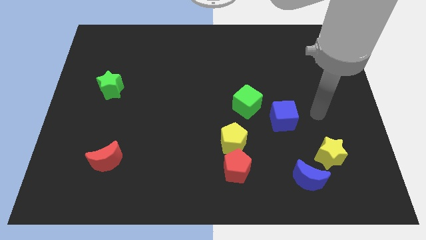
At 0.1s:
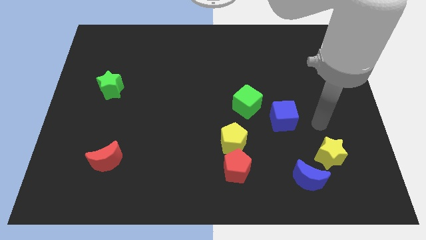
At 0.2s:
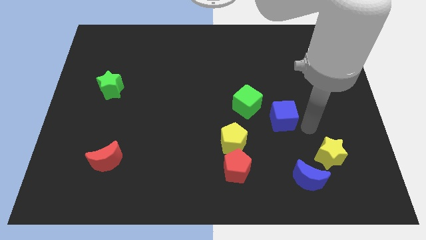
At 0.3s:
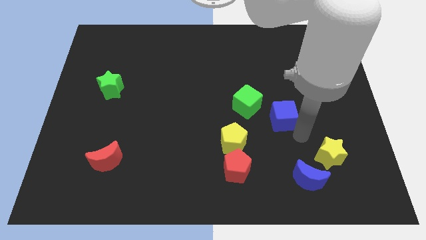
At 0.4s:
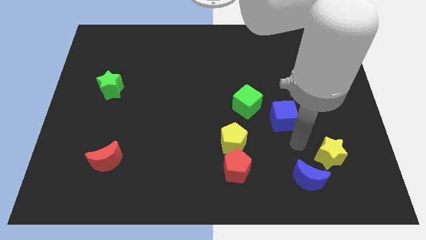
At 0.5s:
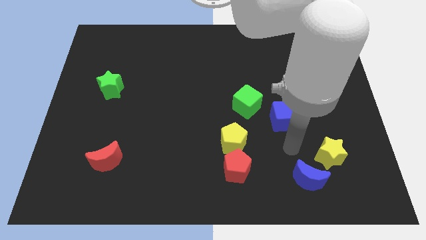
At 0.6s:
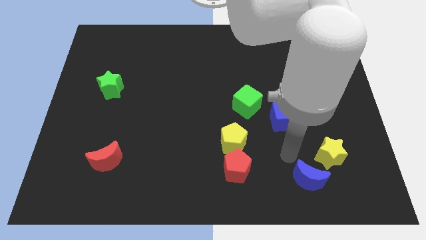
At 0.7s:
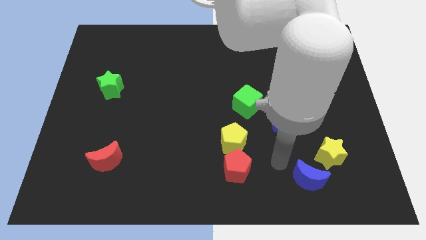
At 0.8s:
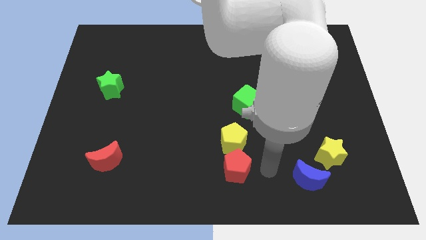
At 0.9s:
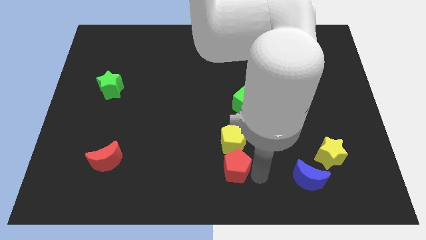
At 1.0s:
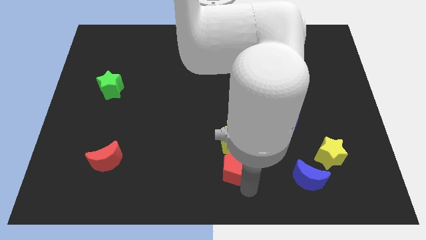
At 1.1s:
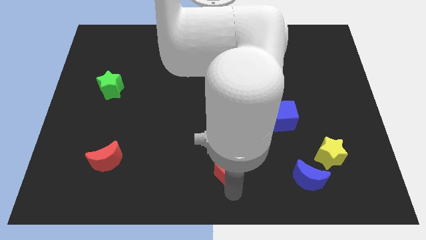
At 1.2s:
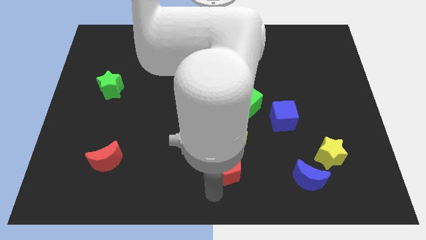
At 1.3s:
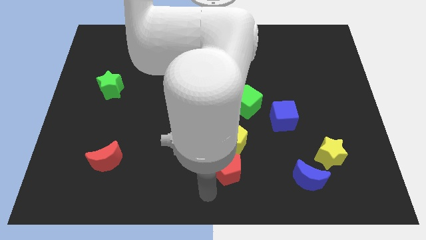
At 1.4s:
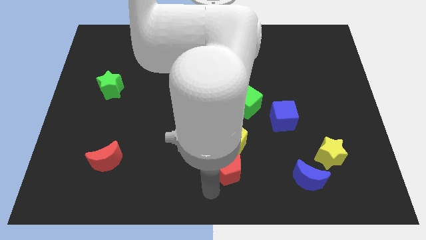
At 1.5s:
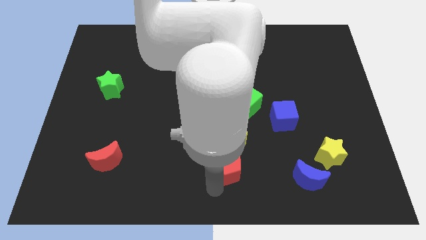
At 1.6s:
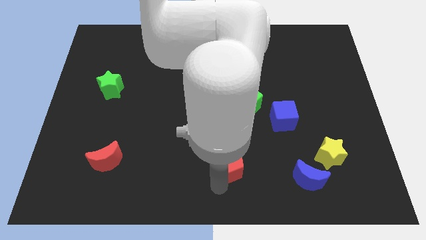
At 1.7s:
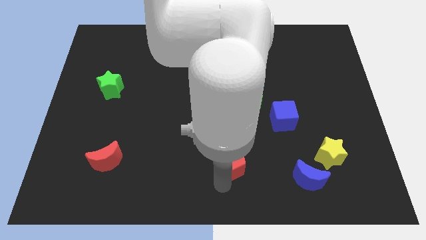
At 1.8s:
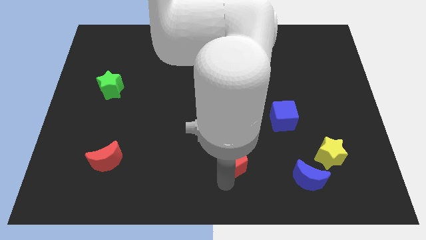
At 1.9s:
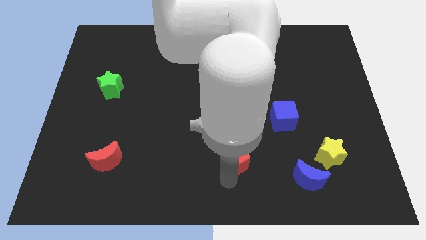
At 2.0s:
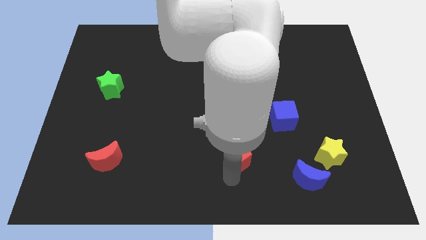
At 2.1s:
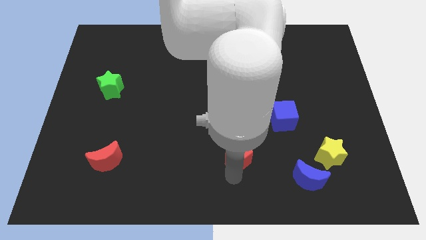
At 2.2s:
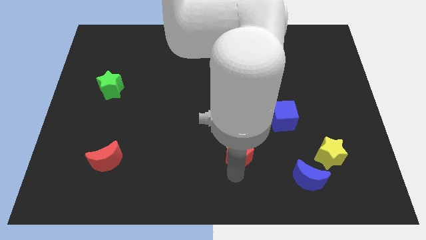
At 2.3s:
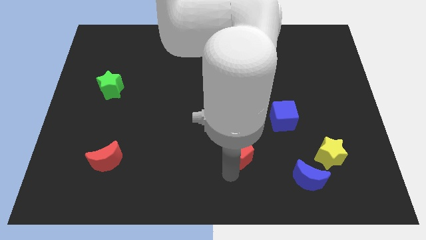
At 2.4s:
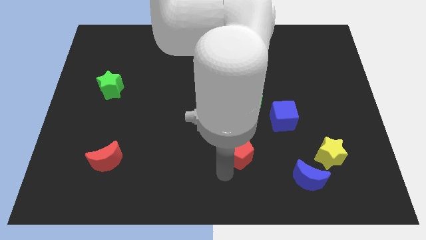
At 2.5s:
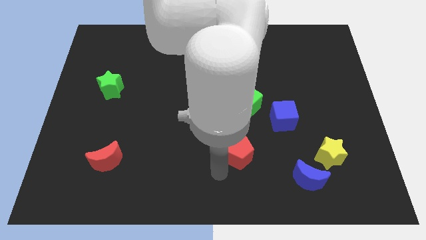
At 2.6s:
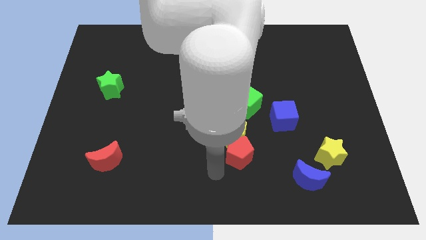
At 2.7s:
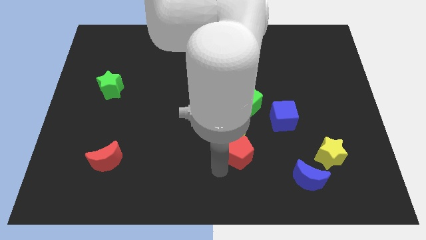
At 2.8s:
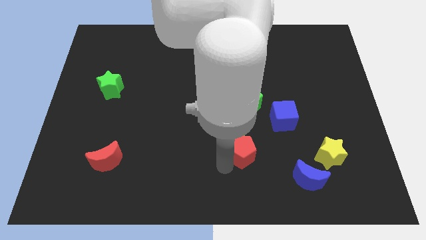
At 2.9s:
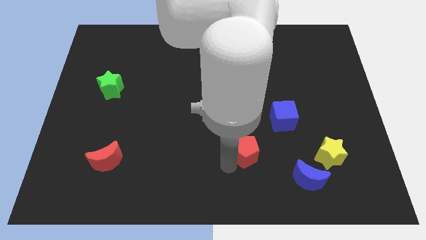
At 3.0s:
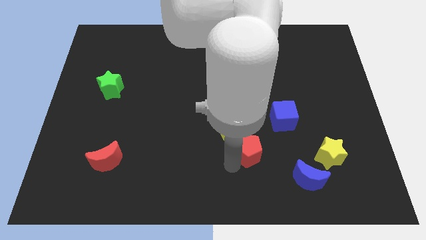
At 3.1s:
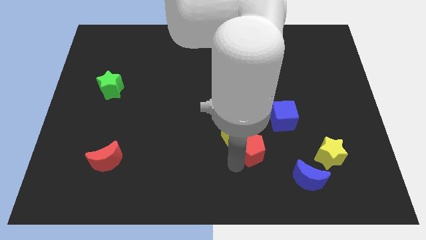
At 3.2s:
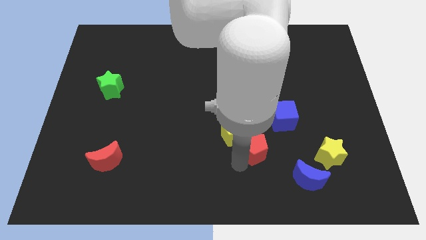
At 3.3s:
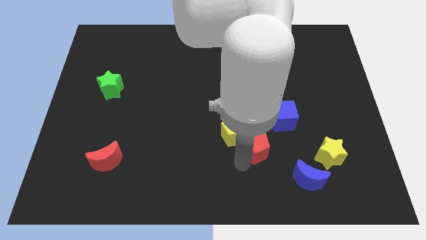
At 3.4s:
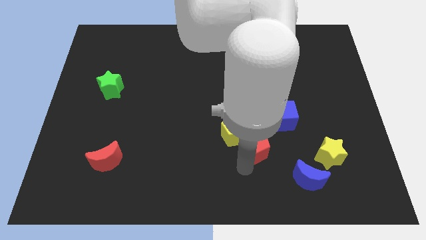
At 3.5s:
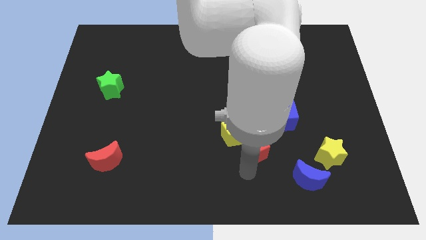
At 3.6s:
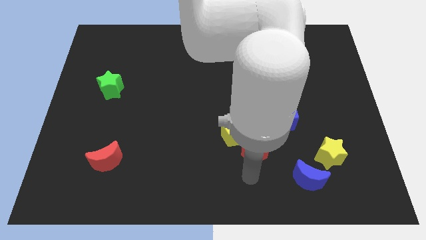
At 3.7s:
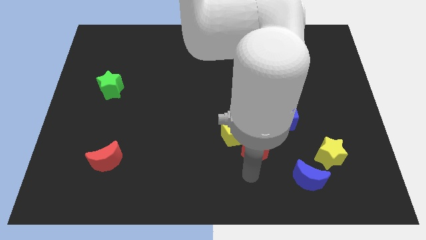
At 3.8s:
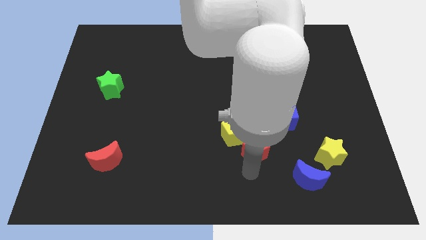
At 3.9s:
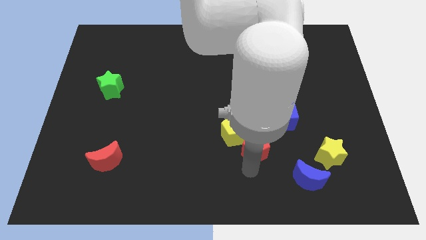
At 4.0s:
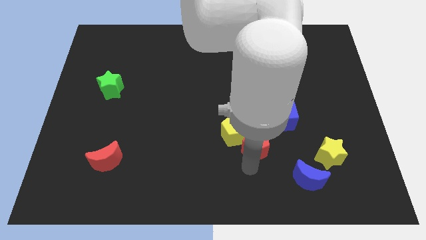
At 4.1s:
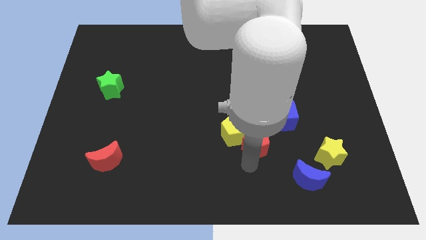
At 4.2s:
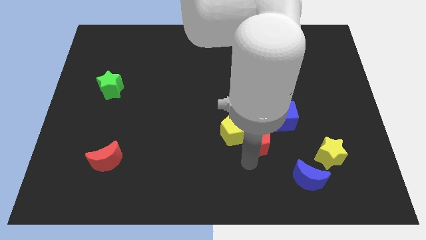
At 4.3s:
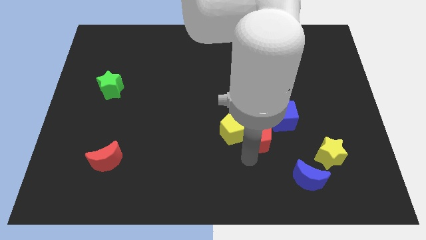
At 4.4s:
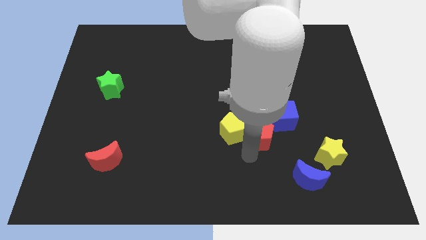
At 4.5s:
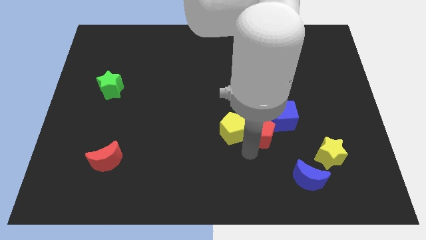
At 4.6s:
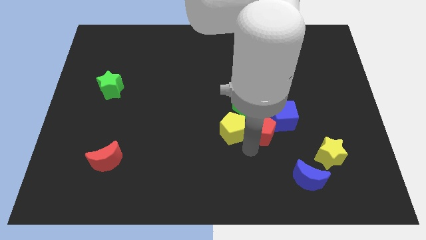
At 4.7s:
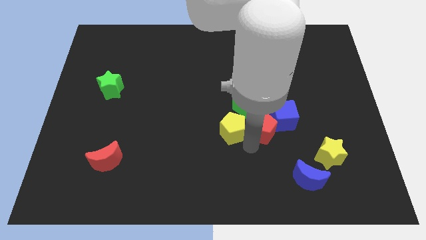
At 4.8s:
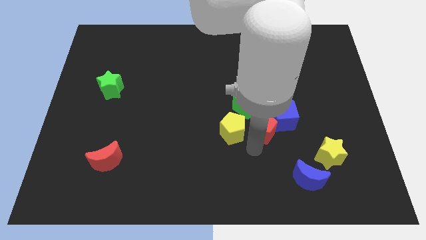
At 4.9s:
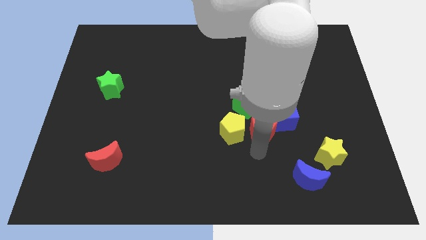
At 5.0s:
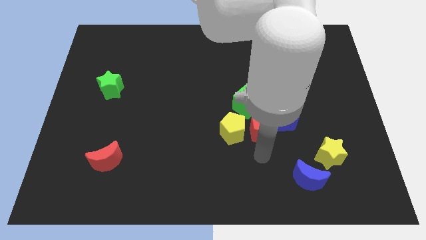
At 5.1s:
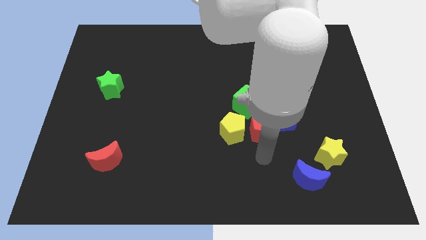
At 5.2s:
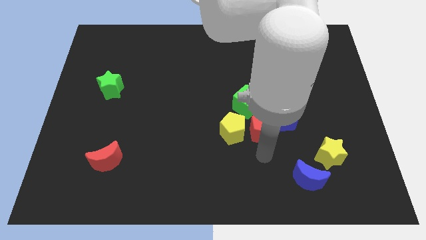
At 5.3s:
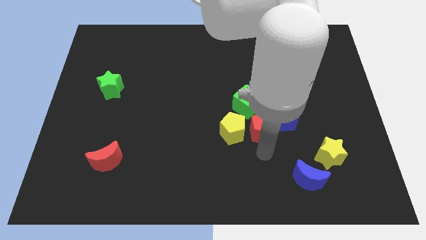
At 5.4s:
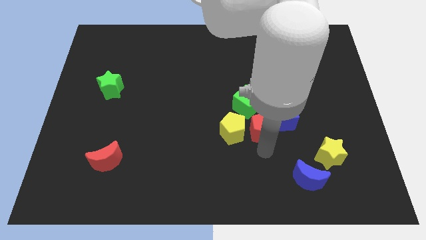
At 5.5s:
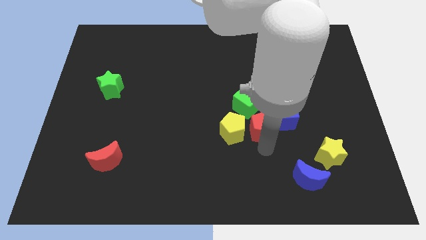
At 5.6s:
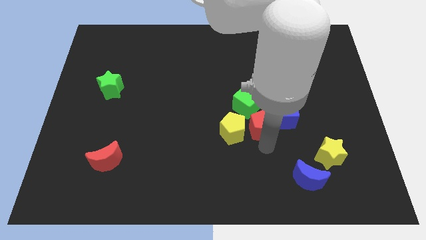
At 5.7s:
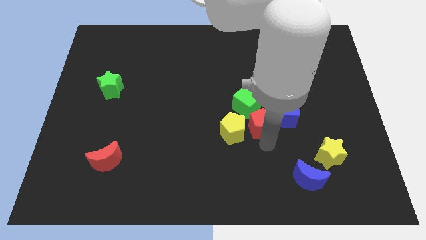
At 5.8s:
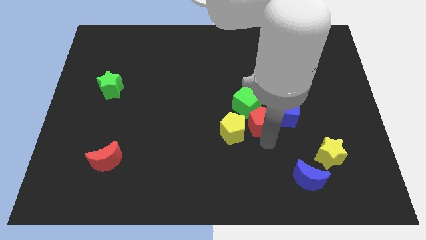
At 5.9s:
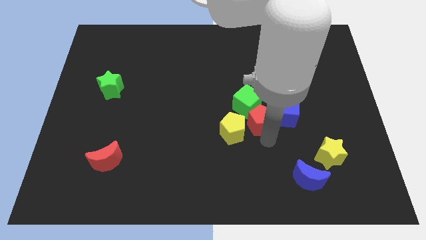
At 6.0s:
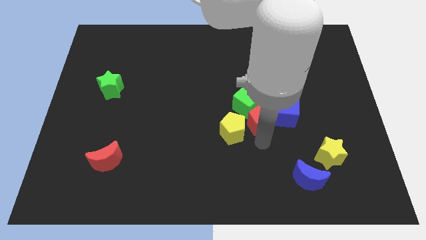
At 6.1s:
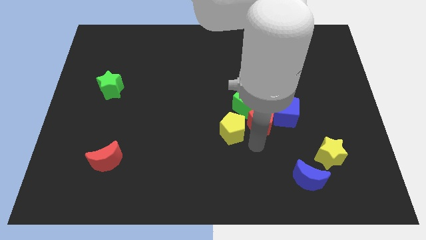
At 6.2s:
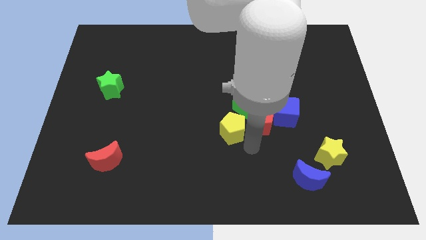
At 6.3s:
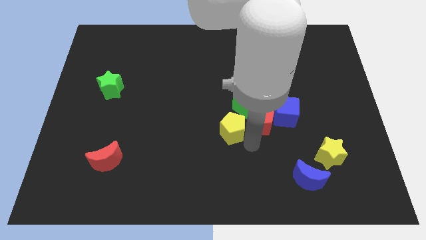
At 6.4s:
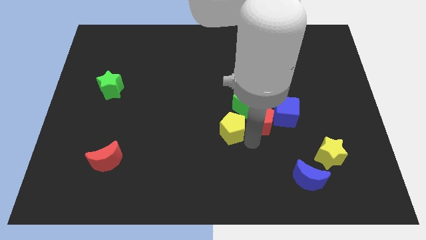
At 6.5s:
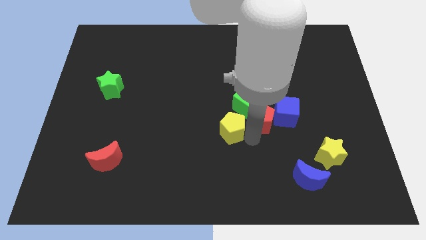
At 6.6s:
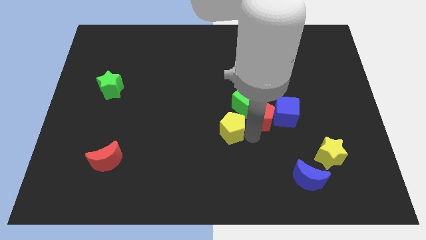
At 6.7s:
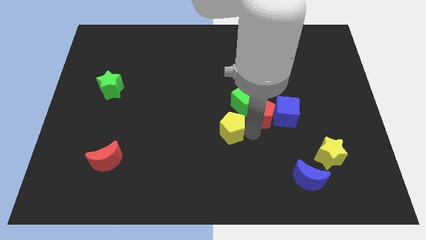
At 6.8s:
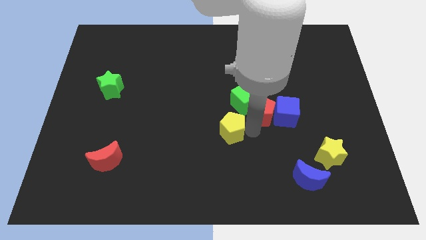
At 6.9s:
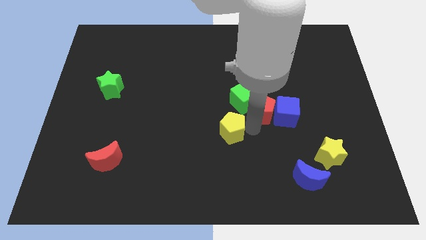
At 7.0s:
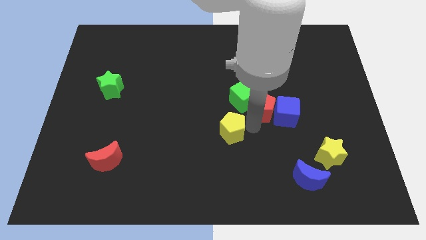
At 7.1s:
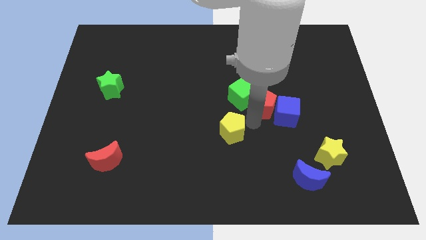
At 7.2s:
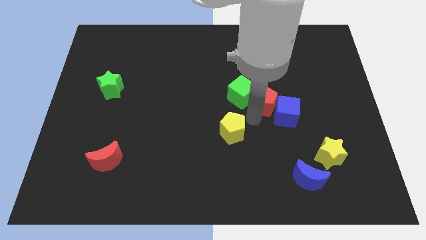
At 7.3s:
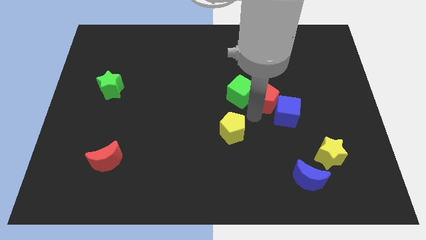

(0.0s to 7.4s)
slide the red pentagon to the top side of the blue cube
